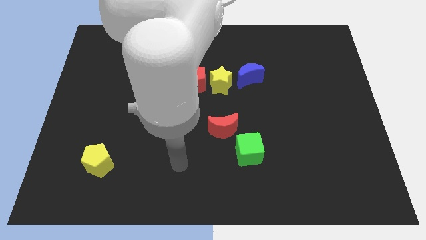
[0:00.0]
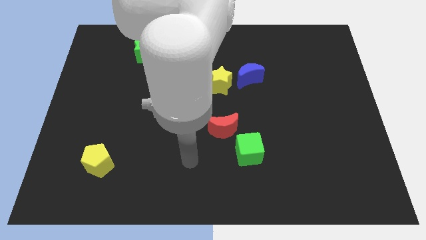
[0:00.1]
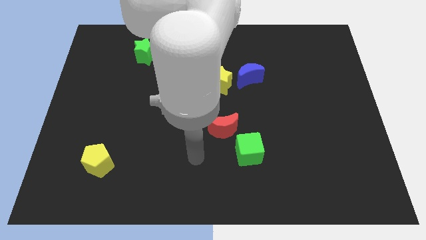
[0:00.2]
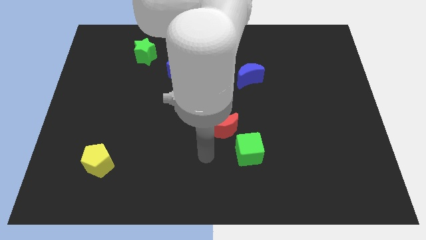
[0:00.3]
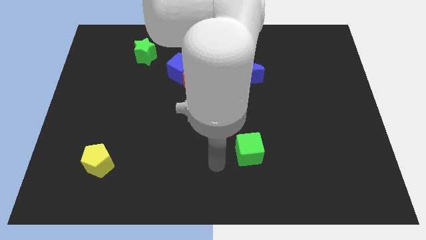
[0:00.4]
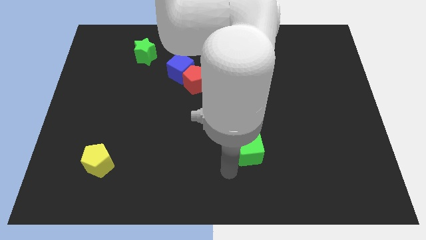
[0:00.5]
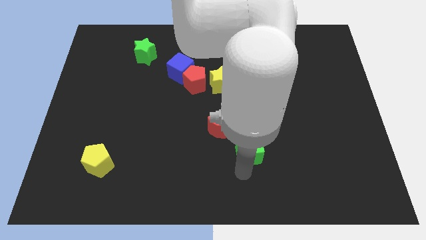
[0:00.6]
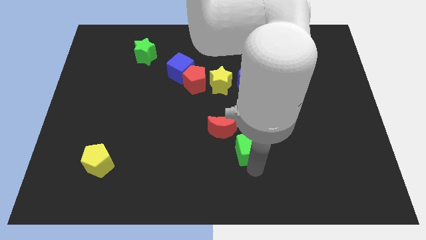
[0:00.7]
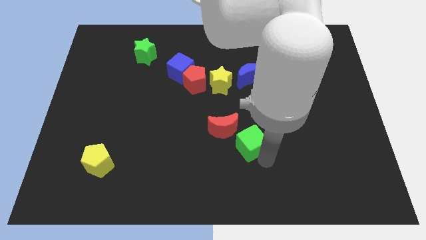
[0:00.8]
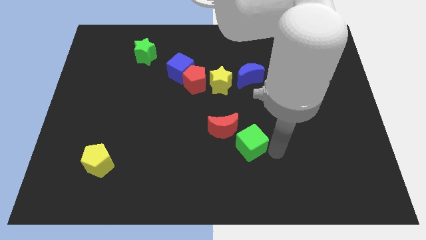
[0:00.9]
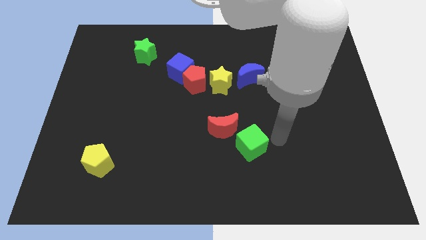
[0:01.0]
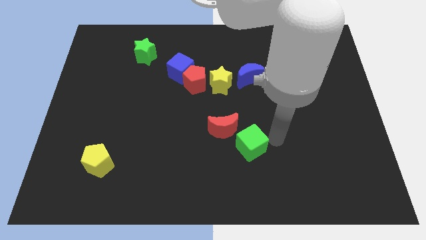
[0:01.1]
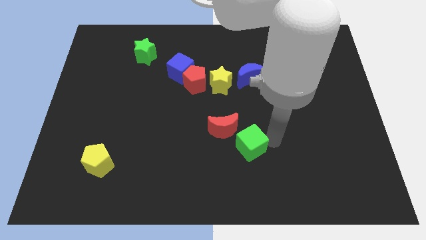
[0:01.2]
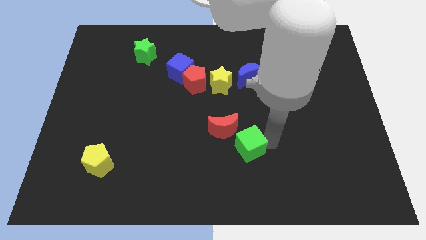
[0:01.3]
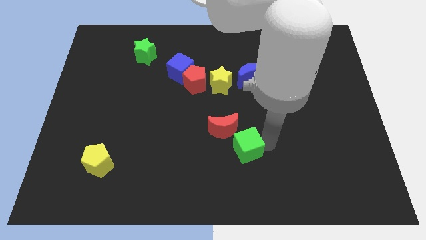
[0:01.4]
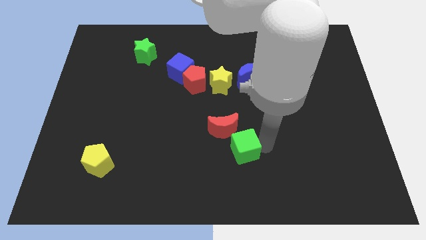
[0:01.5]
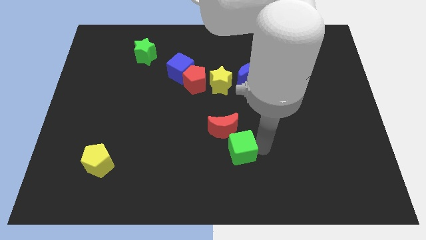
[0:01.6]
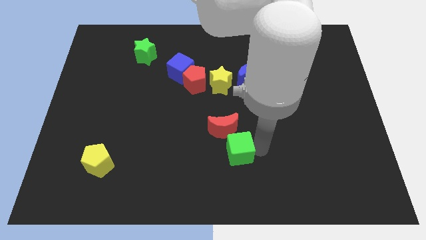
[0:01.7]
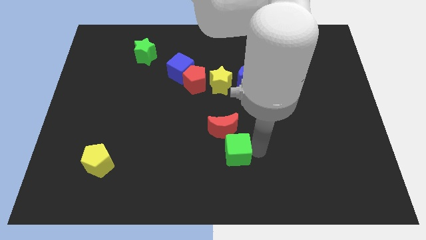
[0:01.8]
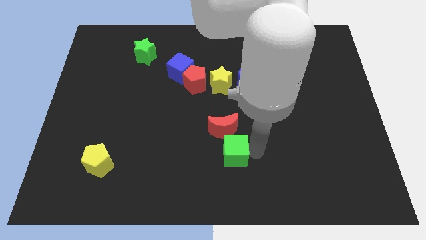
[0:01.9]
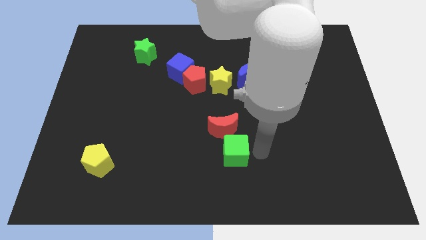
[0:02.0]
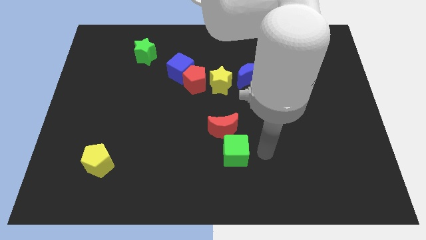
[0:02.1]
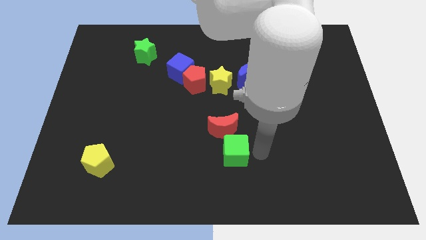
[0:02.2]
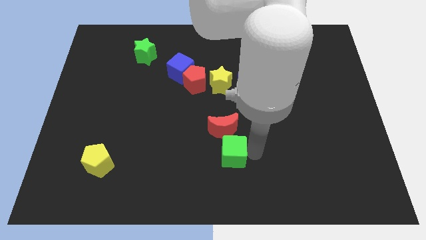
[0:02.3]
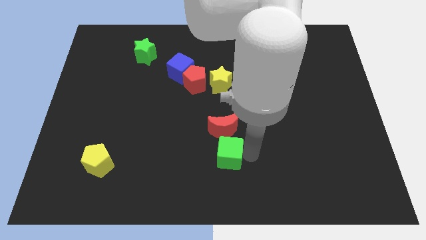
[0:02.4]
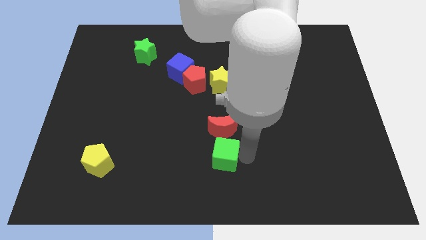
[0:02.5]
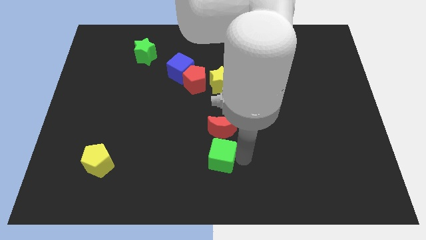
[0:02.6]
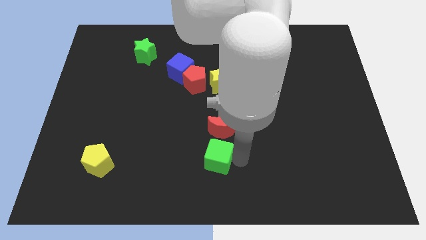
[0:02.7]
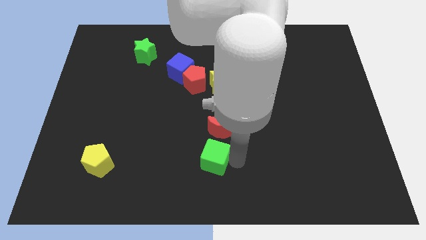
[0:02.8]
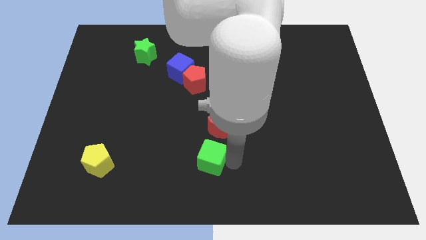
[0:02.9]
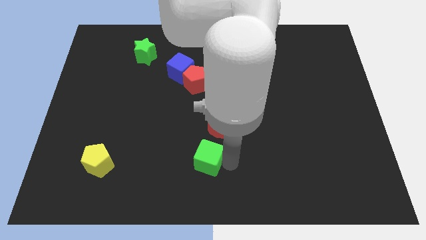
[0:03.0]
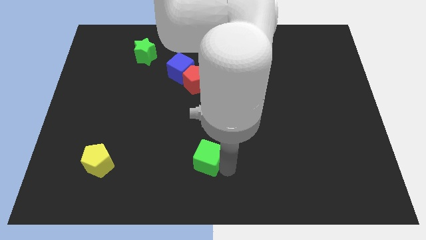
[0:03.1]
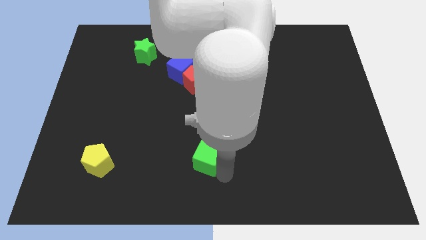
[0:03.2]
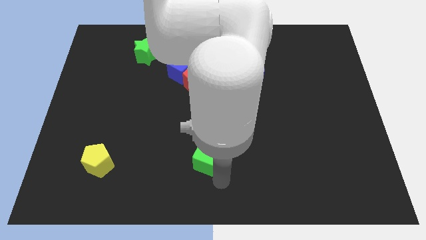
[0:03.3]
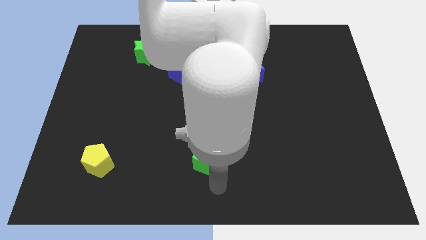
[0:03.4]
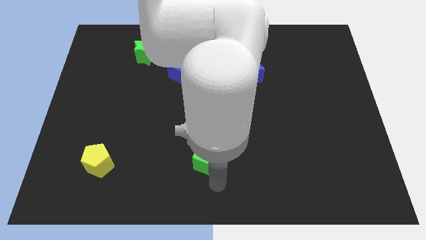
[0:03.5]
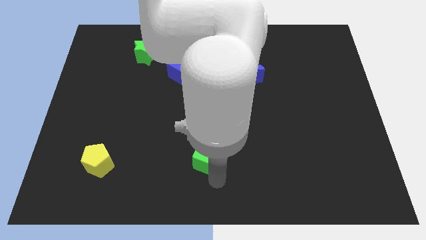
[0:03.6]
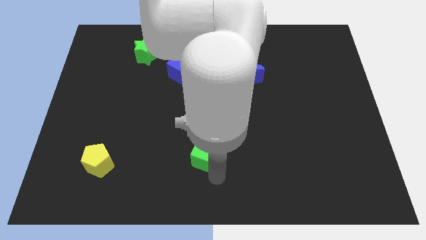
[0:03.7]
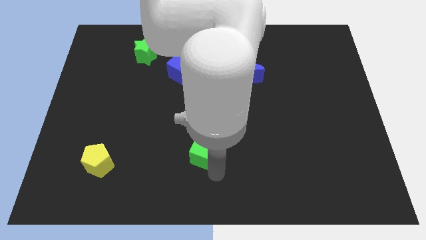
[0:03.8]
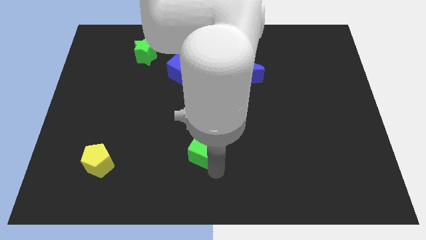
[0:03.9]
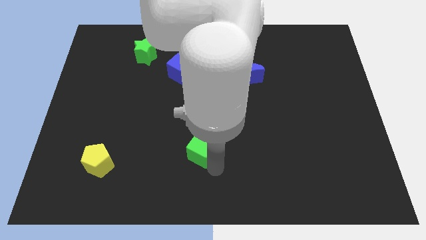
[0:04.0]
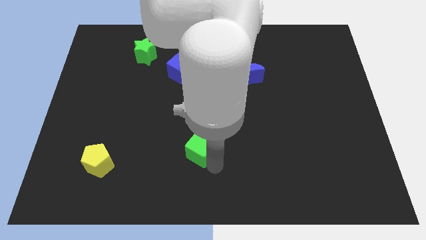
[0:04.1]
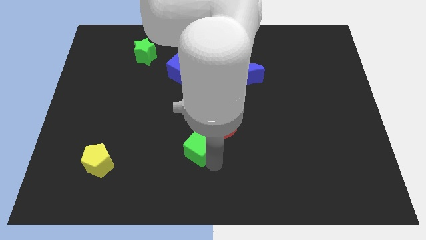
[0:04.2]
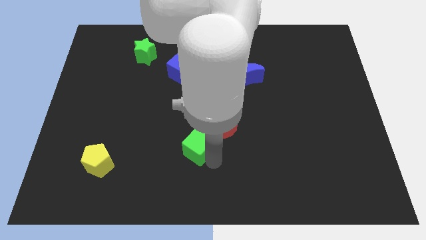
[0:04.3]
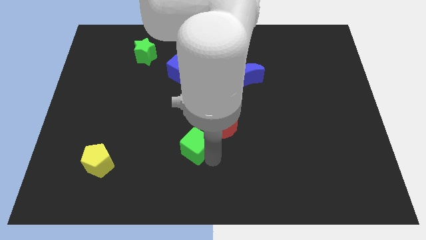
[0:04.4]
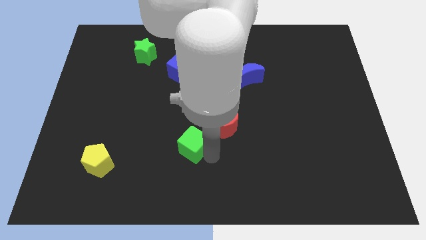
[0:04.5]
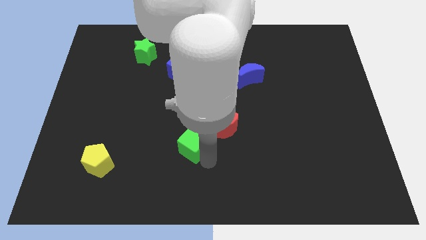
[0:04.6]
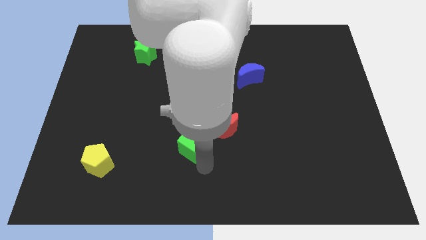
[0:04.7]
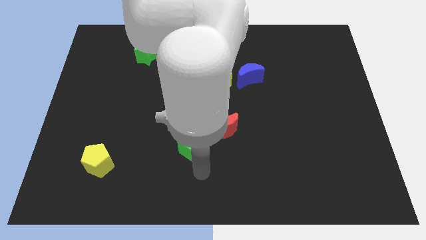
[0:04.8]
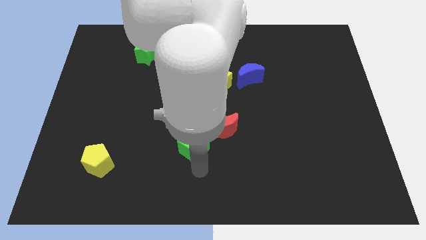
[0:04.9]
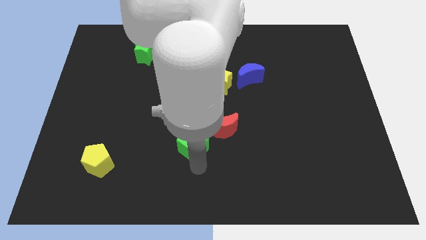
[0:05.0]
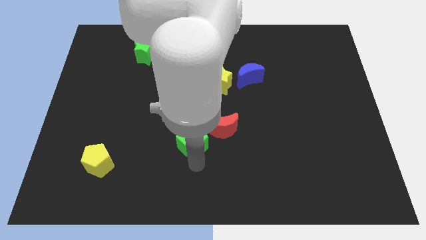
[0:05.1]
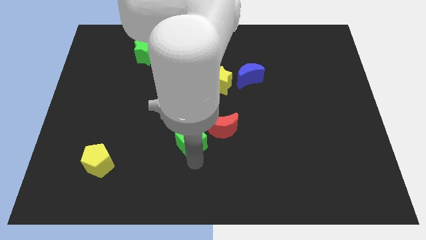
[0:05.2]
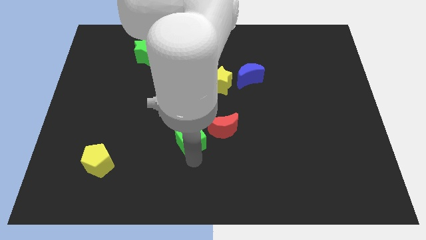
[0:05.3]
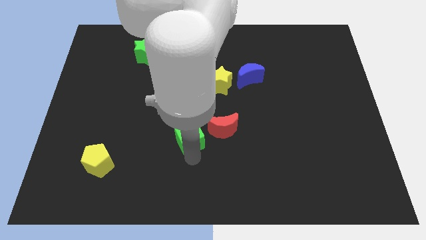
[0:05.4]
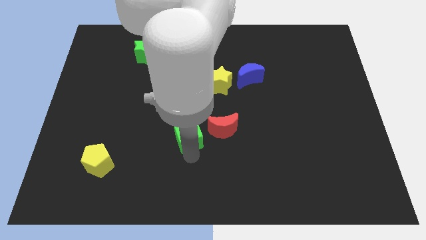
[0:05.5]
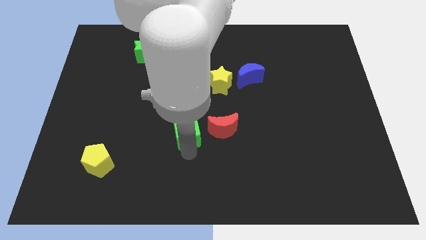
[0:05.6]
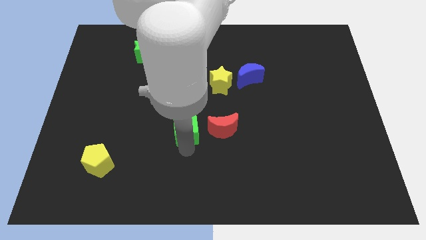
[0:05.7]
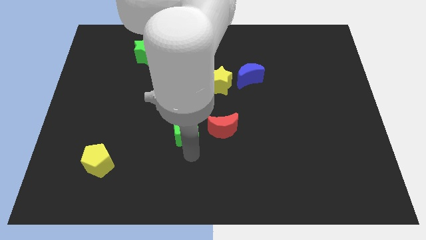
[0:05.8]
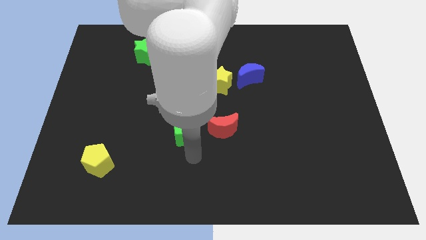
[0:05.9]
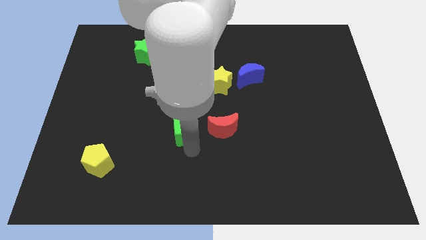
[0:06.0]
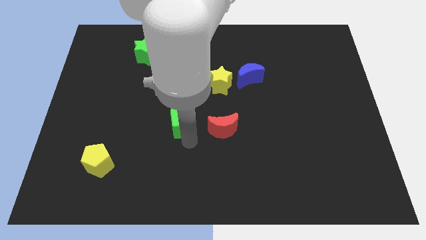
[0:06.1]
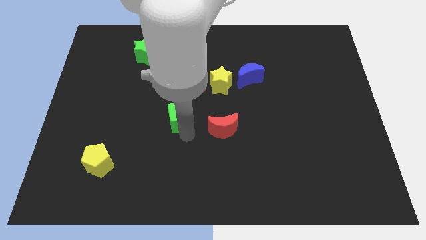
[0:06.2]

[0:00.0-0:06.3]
push the green cube to the bottom of the blue cube
